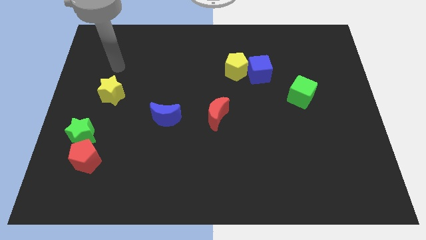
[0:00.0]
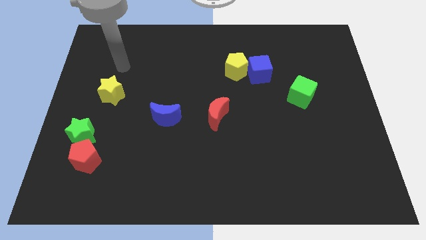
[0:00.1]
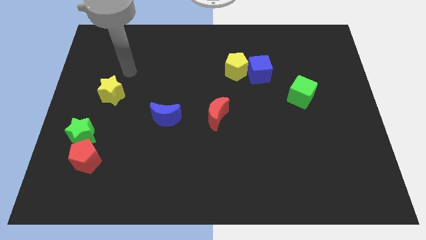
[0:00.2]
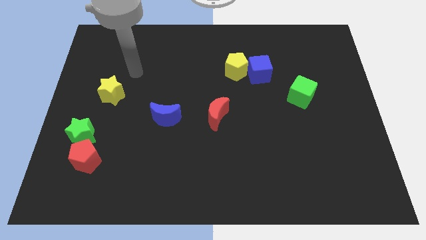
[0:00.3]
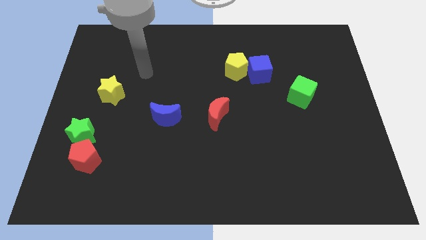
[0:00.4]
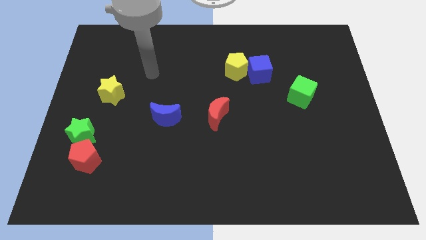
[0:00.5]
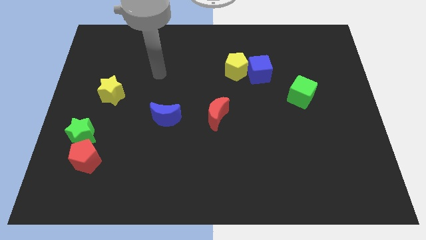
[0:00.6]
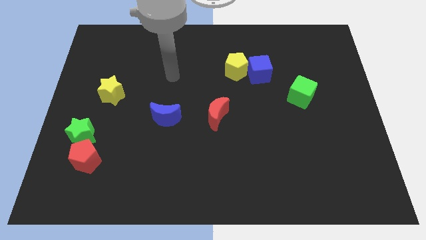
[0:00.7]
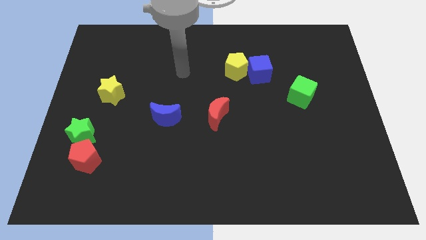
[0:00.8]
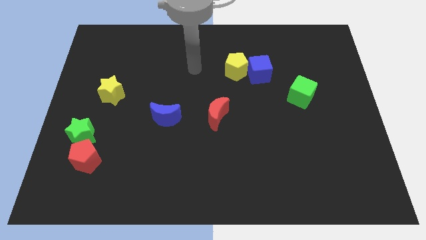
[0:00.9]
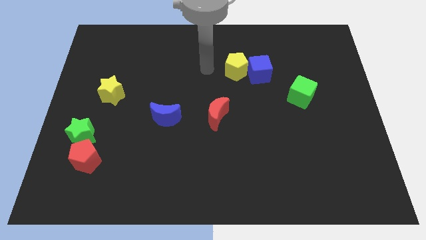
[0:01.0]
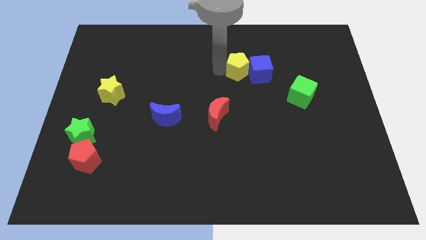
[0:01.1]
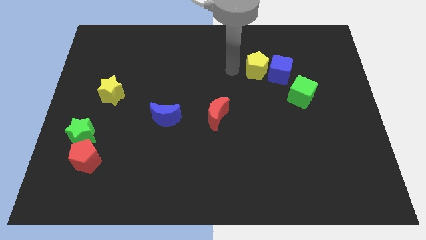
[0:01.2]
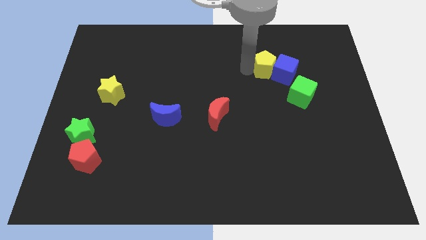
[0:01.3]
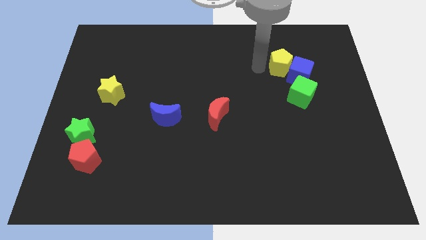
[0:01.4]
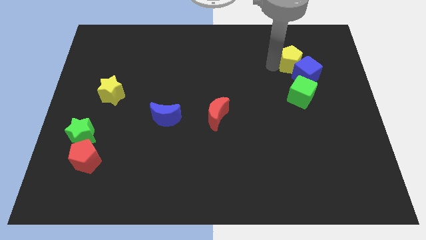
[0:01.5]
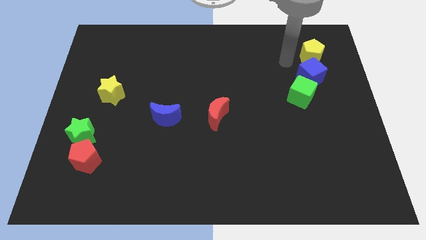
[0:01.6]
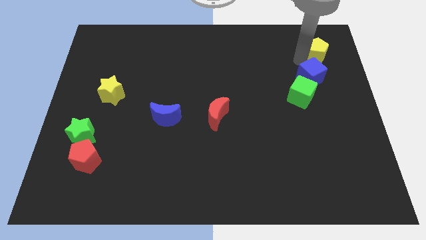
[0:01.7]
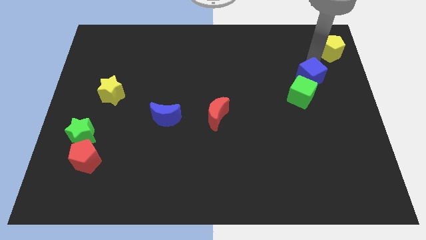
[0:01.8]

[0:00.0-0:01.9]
pull the blue cube apart from the yellow pentagon

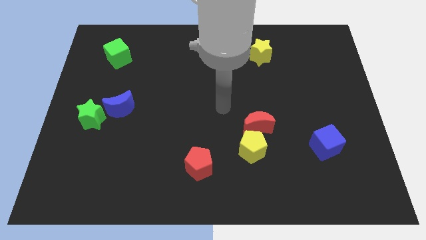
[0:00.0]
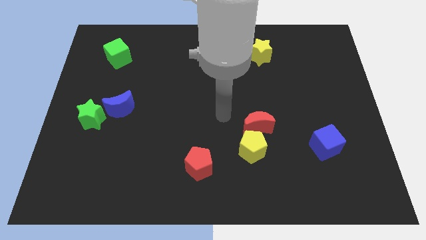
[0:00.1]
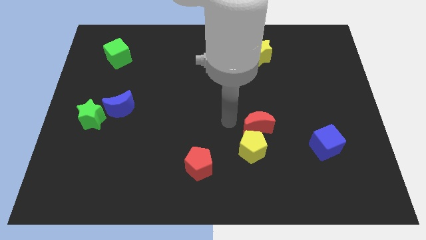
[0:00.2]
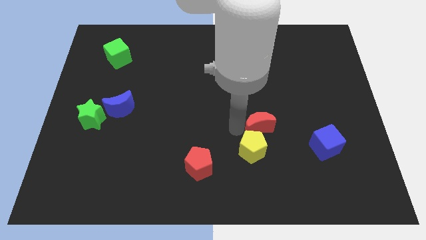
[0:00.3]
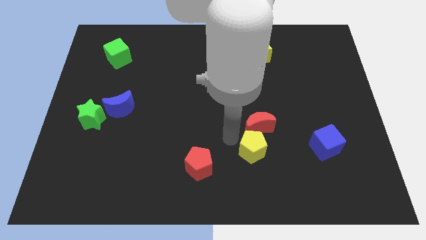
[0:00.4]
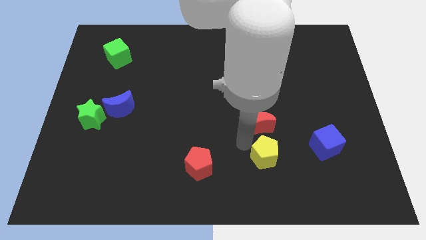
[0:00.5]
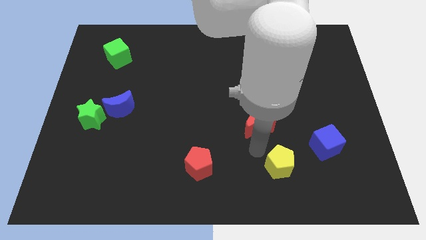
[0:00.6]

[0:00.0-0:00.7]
separate the red moon from the yellow pentagon

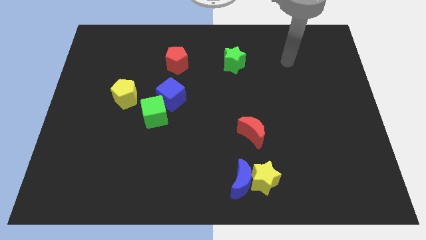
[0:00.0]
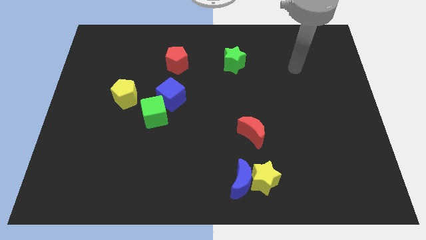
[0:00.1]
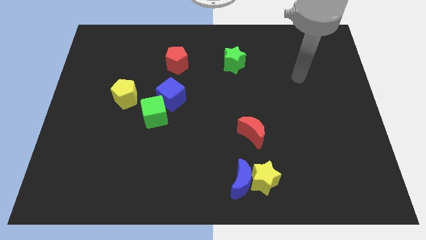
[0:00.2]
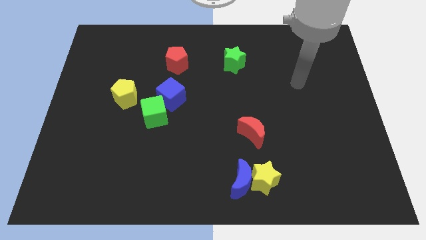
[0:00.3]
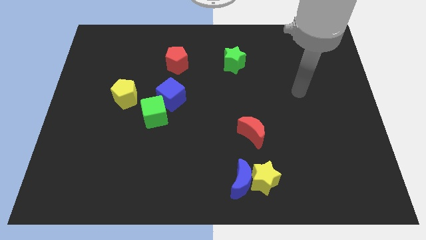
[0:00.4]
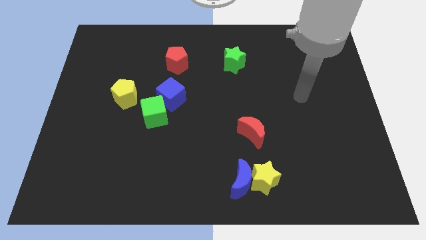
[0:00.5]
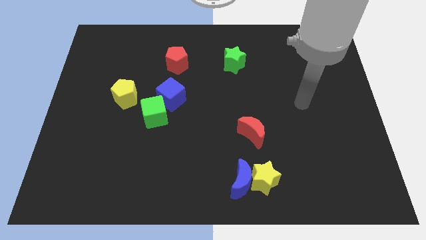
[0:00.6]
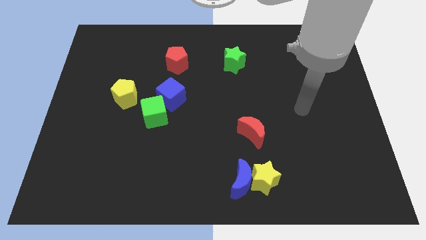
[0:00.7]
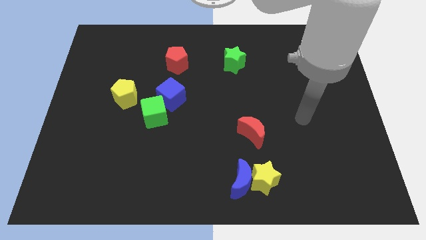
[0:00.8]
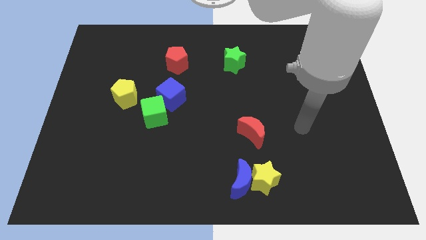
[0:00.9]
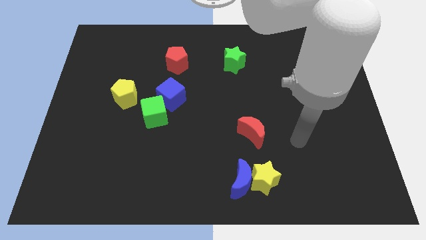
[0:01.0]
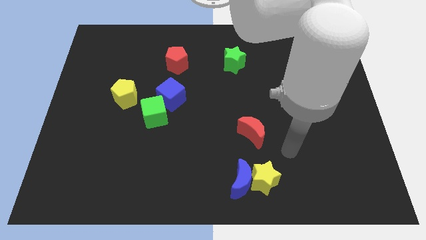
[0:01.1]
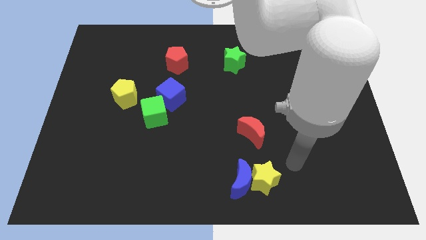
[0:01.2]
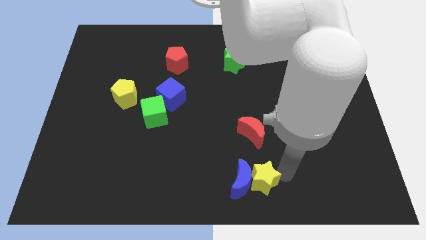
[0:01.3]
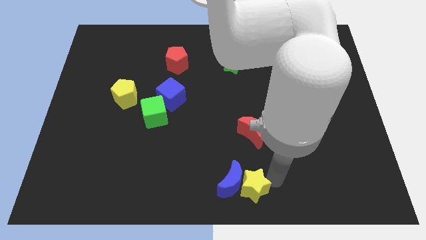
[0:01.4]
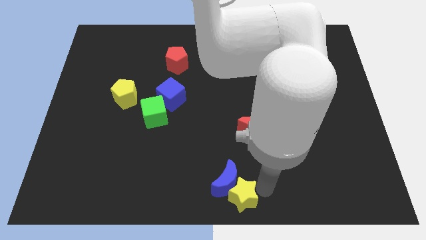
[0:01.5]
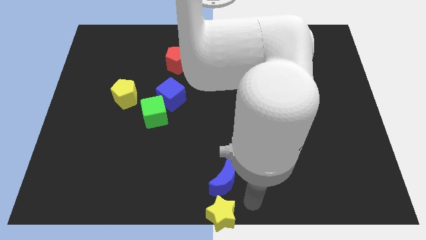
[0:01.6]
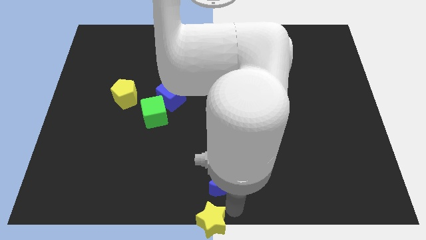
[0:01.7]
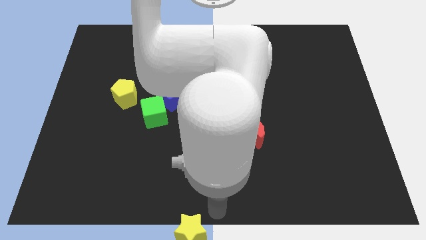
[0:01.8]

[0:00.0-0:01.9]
move the blue moon away from the yellow star

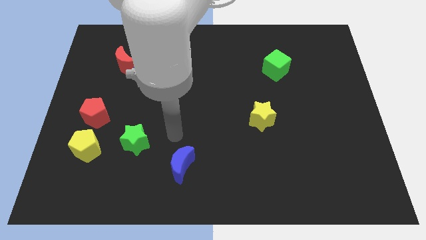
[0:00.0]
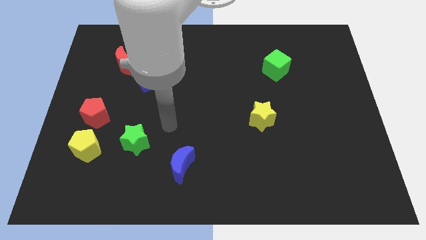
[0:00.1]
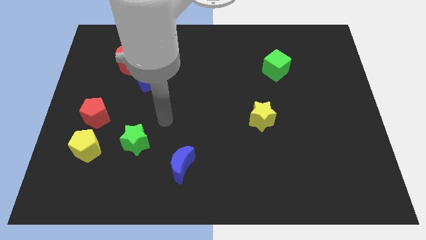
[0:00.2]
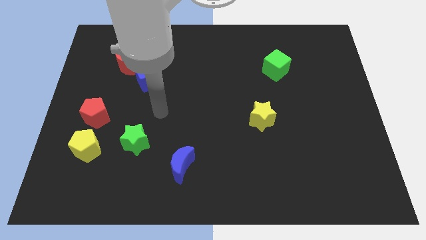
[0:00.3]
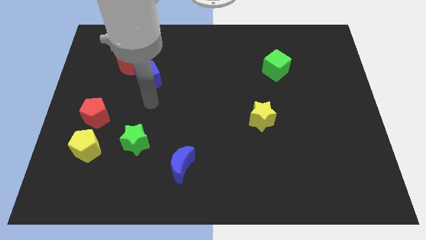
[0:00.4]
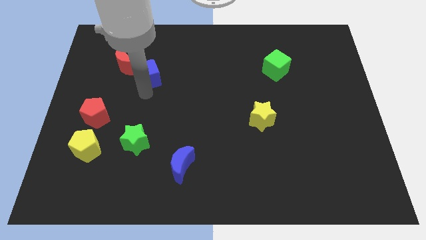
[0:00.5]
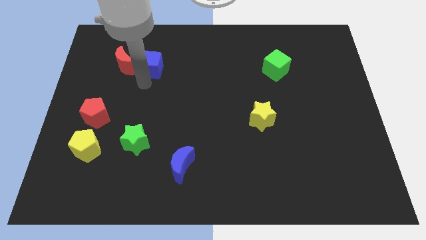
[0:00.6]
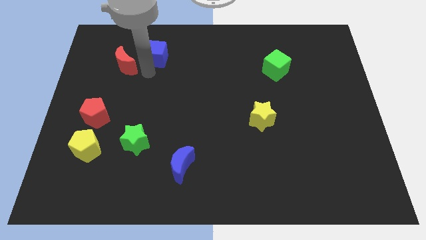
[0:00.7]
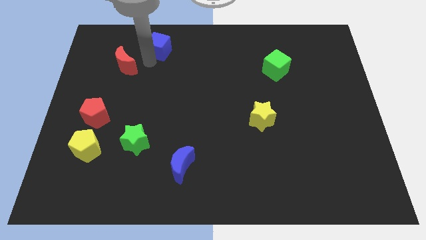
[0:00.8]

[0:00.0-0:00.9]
move the red moon away from the blue cube

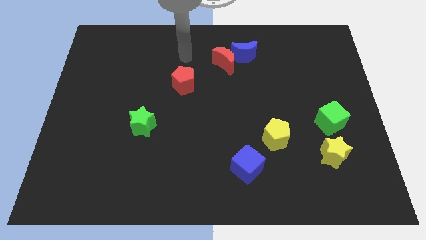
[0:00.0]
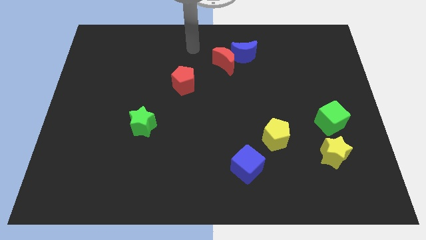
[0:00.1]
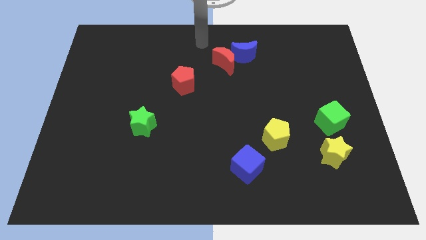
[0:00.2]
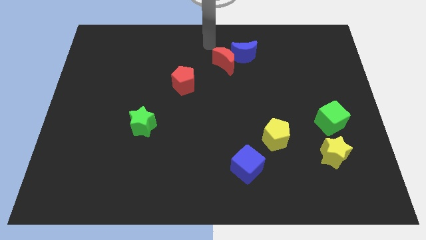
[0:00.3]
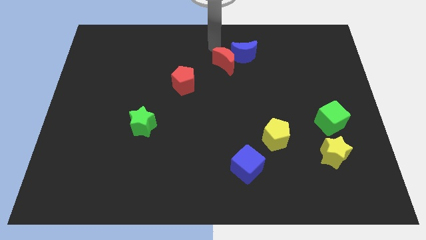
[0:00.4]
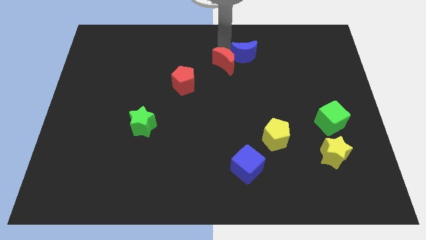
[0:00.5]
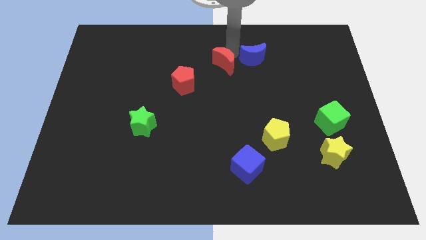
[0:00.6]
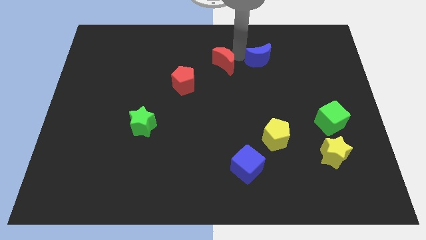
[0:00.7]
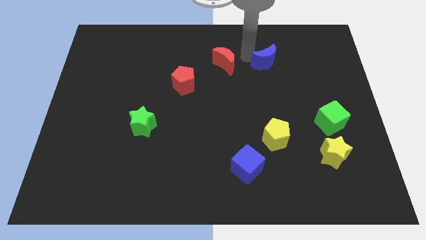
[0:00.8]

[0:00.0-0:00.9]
move the red moon away from the blue moon

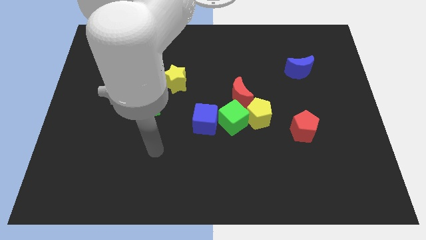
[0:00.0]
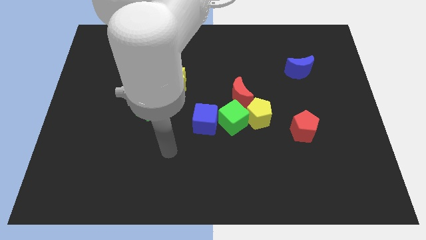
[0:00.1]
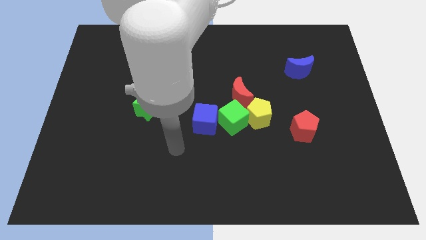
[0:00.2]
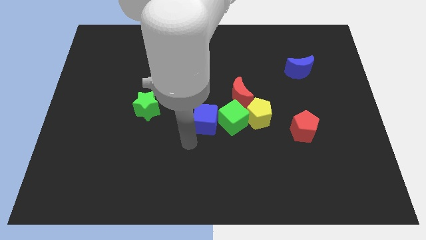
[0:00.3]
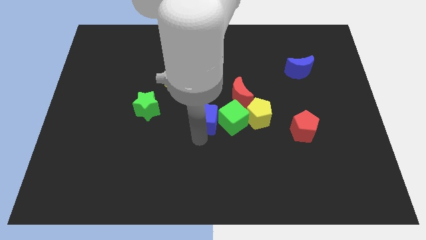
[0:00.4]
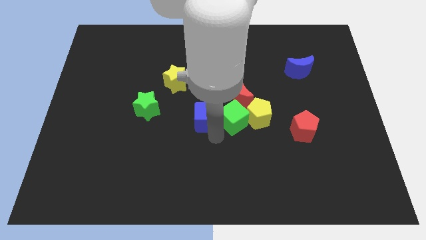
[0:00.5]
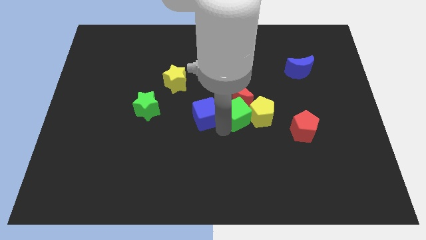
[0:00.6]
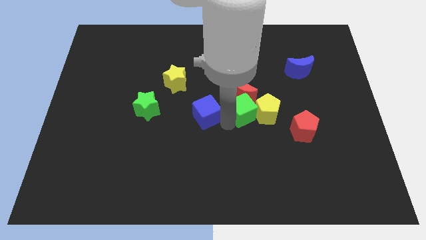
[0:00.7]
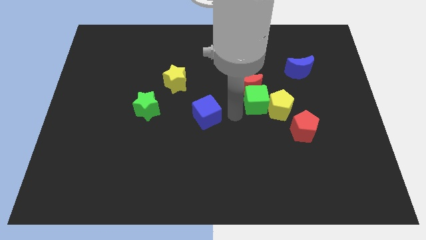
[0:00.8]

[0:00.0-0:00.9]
move the blue cube away from the green cube

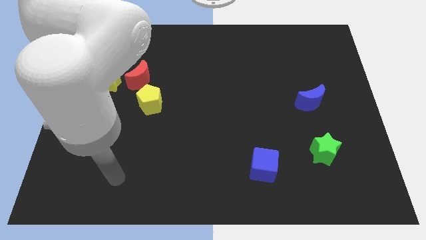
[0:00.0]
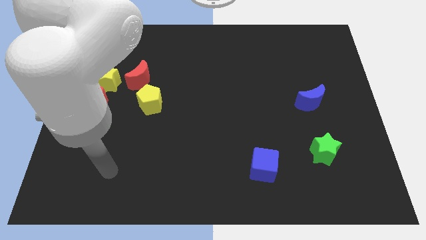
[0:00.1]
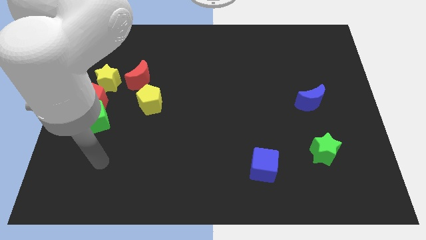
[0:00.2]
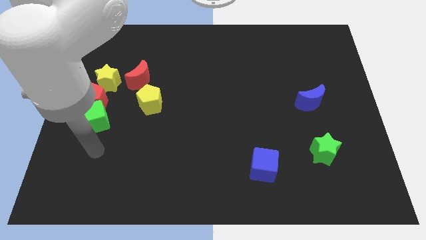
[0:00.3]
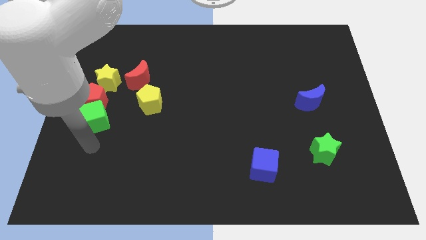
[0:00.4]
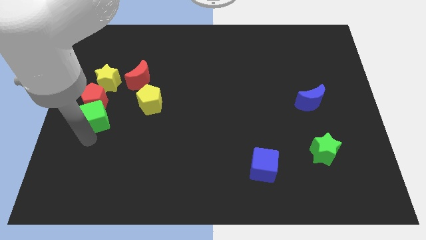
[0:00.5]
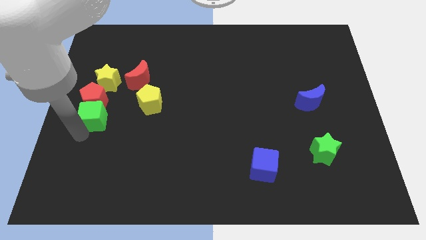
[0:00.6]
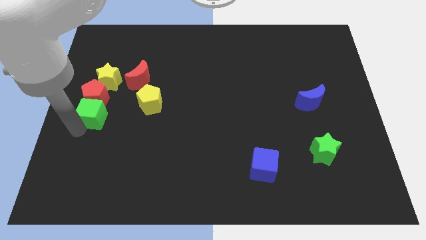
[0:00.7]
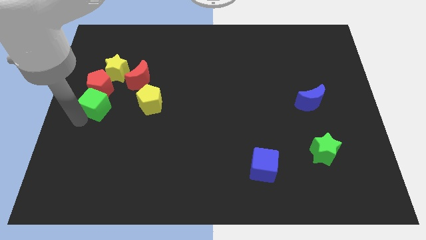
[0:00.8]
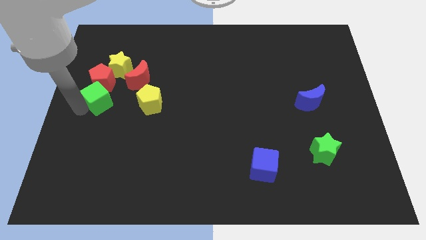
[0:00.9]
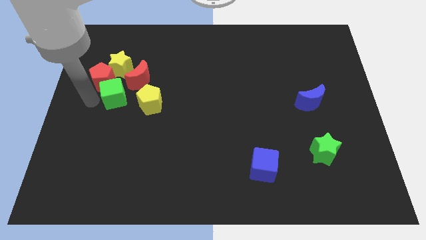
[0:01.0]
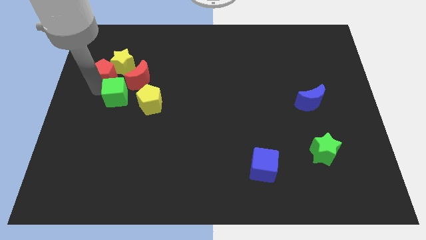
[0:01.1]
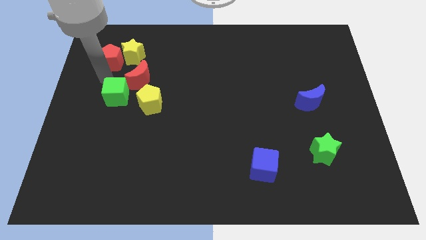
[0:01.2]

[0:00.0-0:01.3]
separate the green cube from the red pentagon

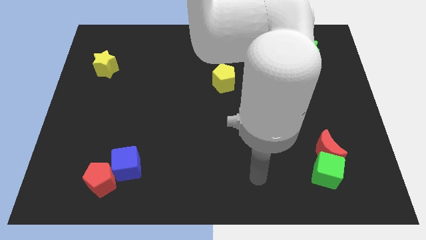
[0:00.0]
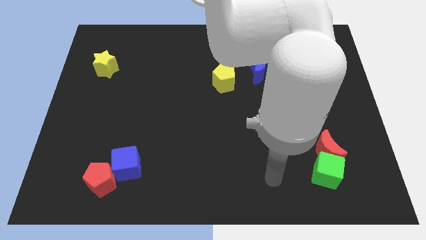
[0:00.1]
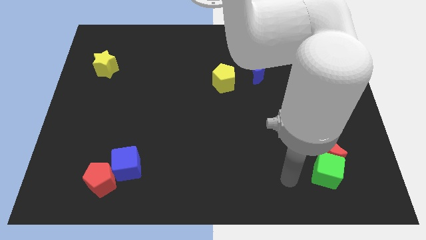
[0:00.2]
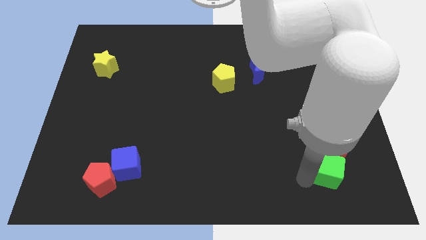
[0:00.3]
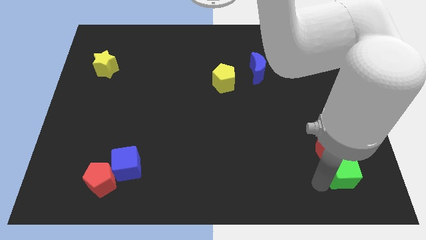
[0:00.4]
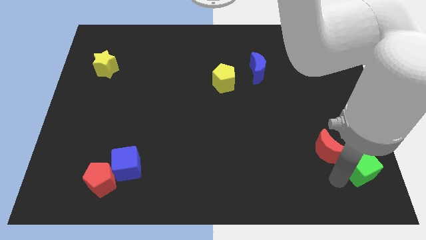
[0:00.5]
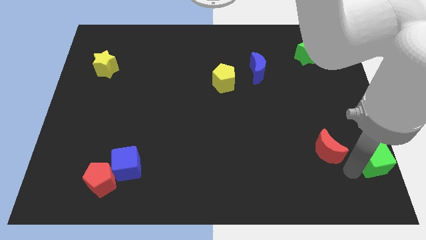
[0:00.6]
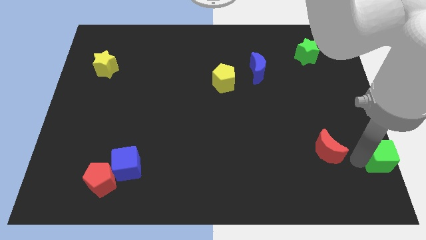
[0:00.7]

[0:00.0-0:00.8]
move the red moon away from the green cube
